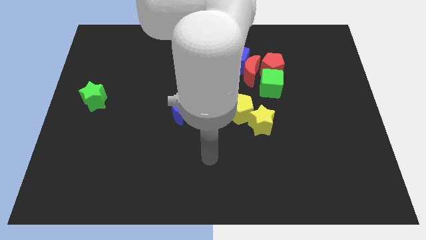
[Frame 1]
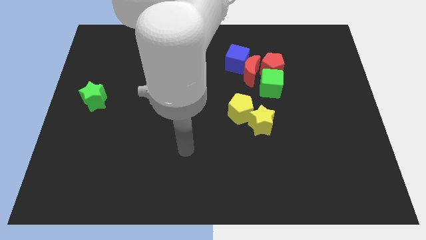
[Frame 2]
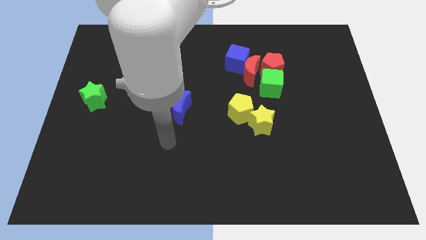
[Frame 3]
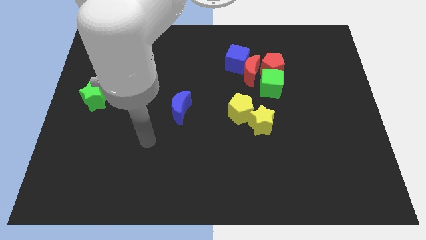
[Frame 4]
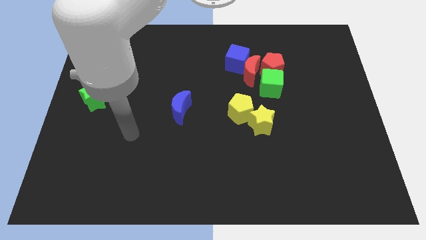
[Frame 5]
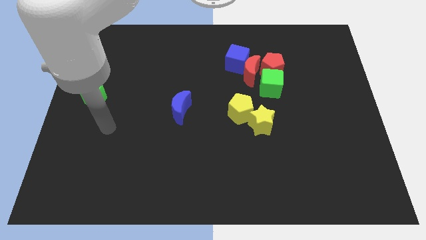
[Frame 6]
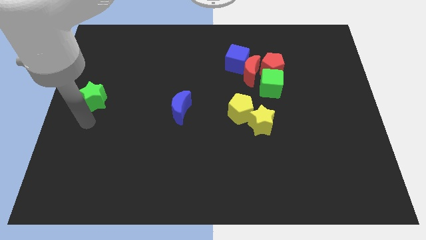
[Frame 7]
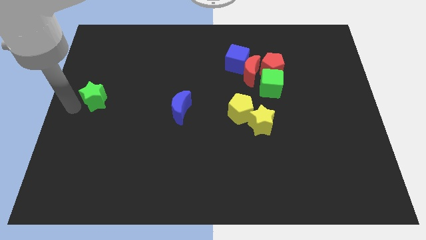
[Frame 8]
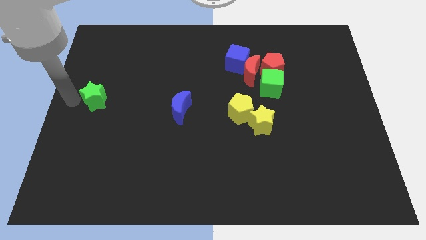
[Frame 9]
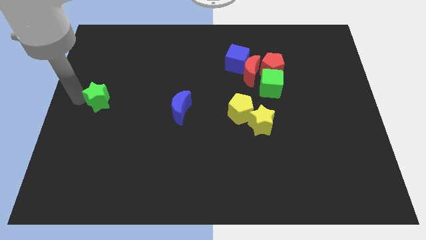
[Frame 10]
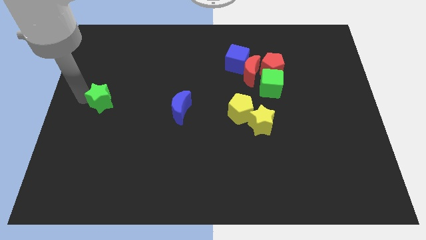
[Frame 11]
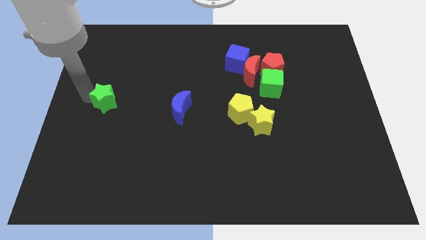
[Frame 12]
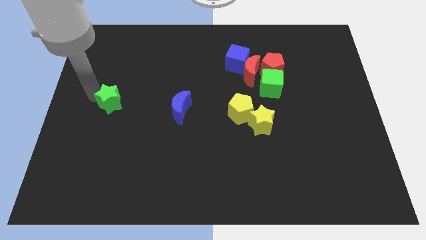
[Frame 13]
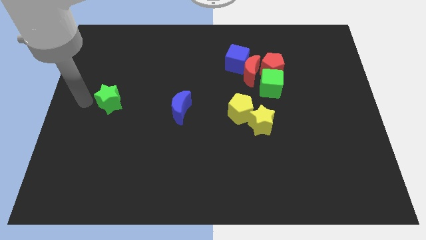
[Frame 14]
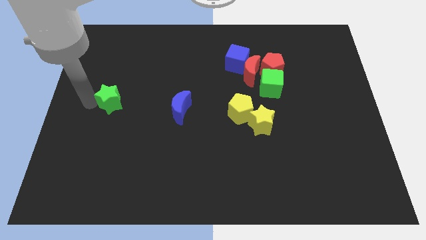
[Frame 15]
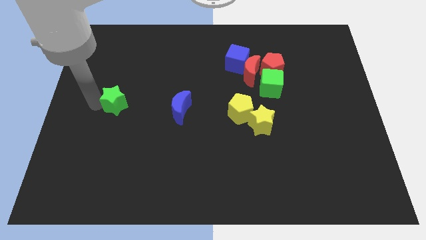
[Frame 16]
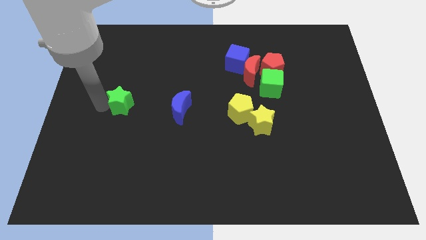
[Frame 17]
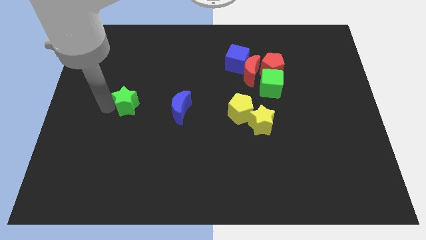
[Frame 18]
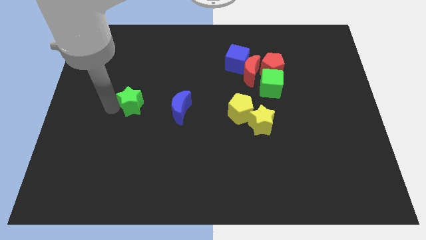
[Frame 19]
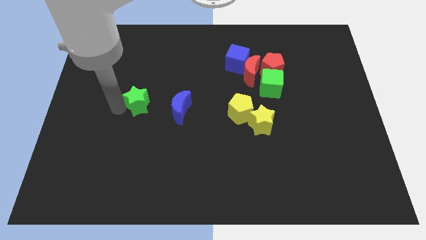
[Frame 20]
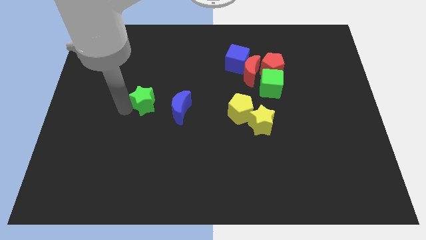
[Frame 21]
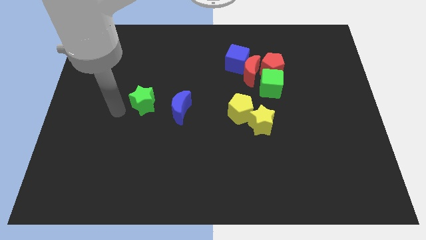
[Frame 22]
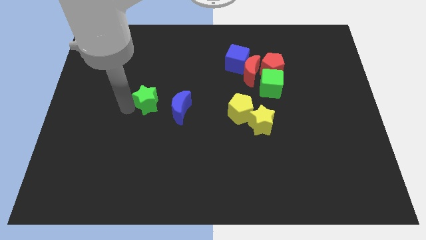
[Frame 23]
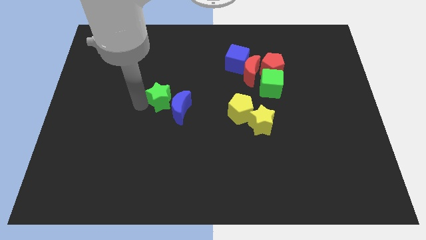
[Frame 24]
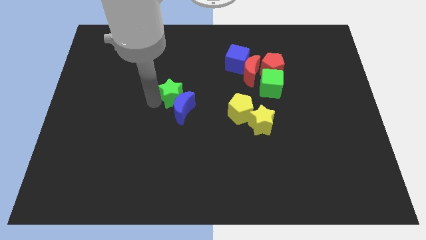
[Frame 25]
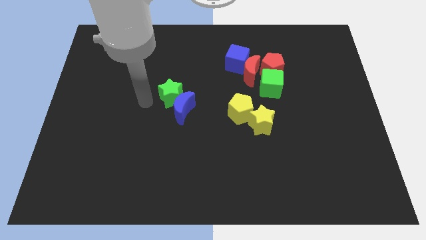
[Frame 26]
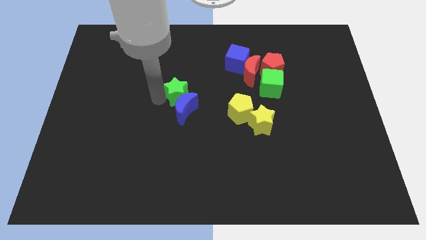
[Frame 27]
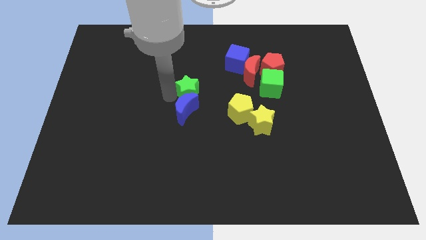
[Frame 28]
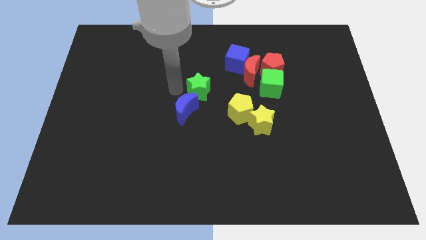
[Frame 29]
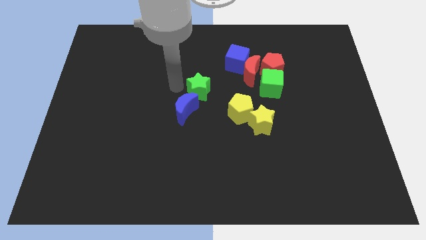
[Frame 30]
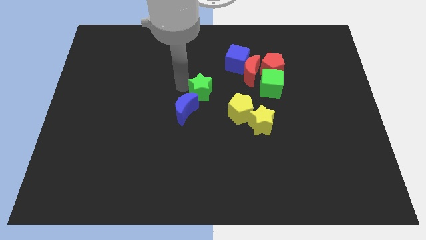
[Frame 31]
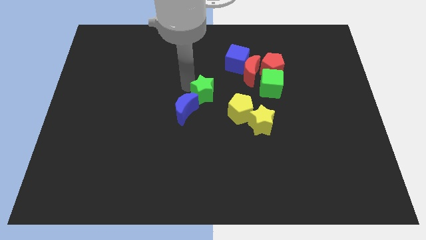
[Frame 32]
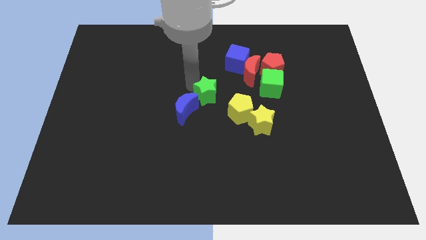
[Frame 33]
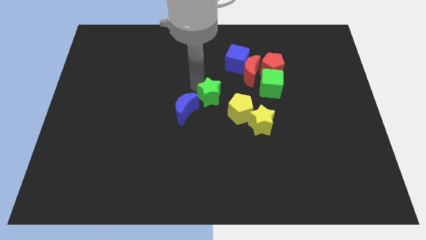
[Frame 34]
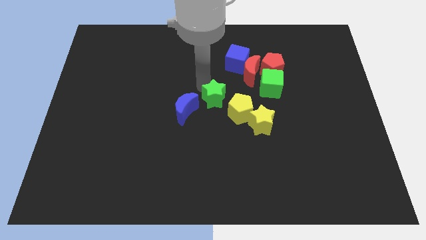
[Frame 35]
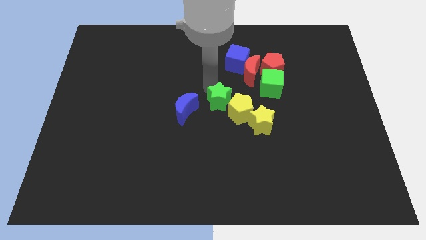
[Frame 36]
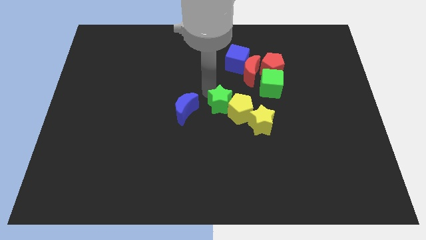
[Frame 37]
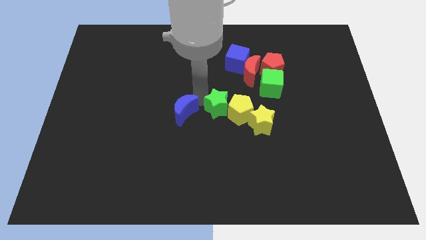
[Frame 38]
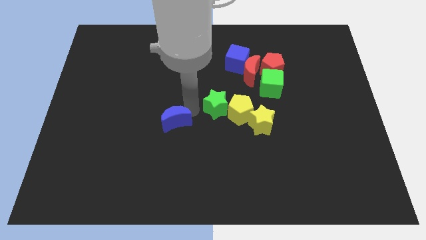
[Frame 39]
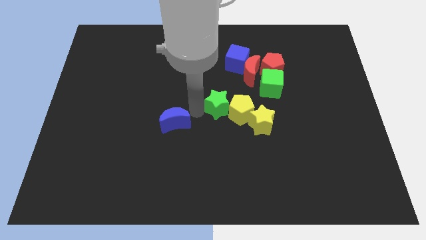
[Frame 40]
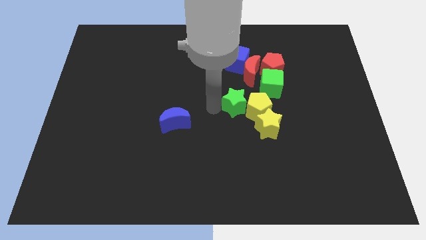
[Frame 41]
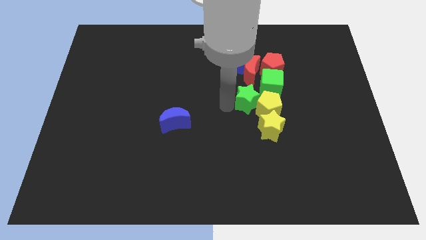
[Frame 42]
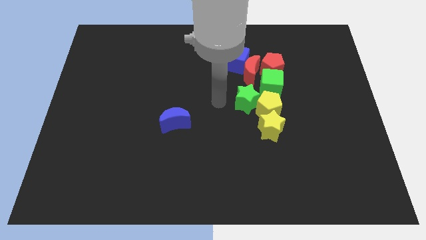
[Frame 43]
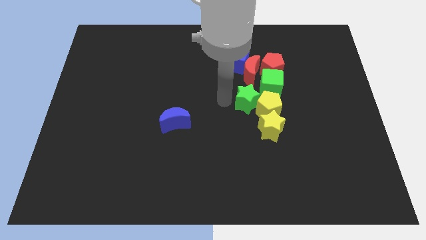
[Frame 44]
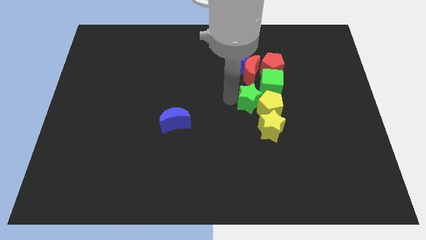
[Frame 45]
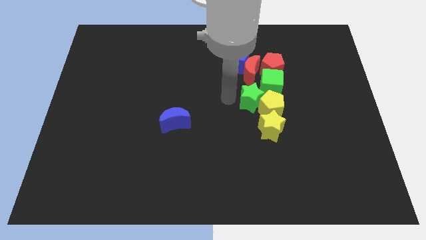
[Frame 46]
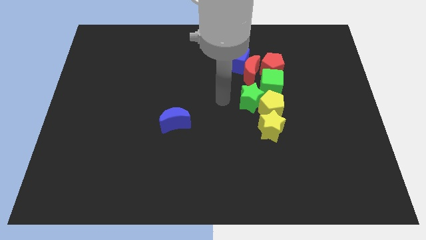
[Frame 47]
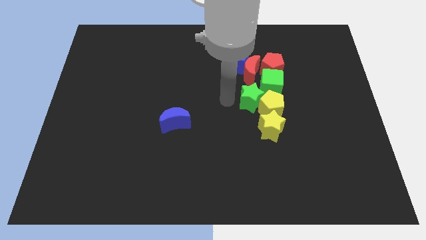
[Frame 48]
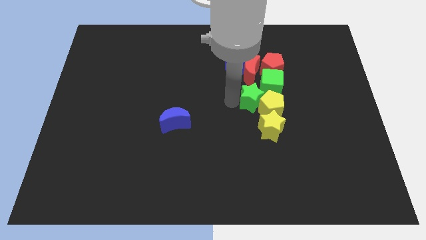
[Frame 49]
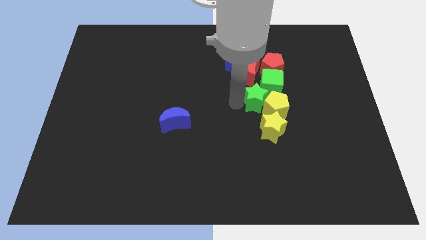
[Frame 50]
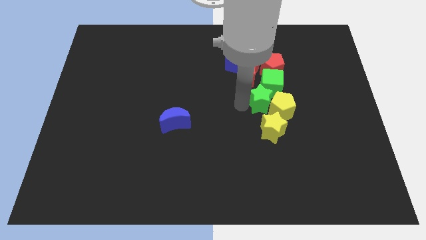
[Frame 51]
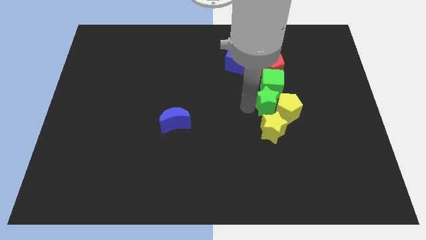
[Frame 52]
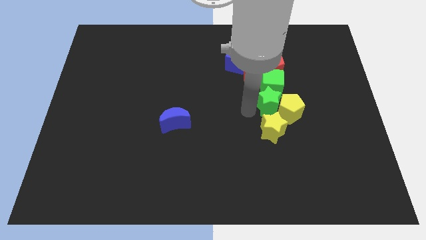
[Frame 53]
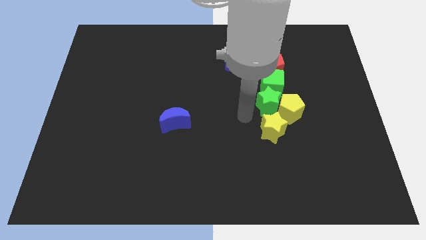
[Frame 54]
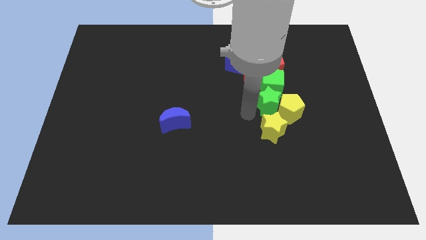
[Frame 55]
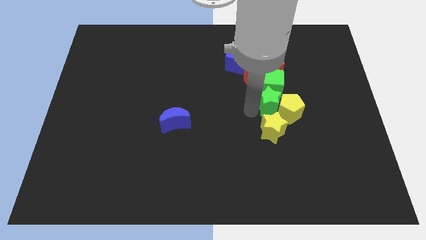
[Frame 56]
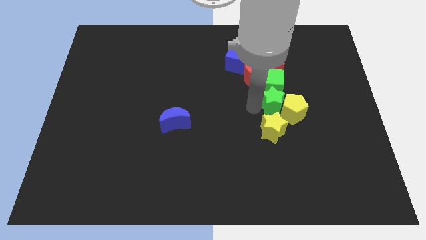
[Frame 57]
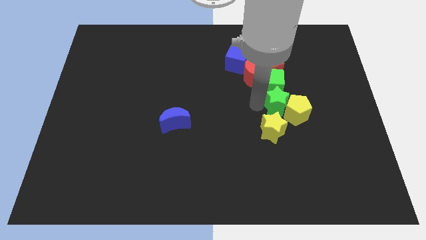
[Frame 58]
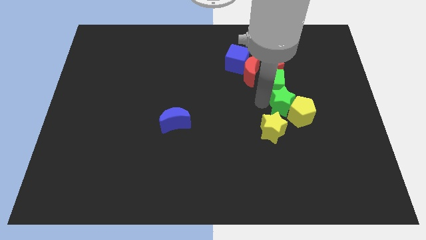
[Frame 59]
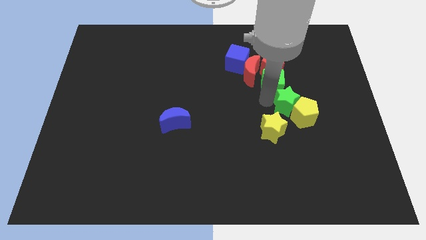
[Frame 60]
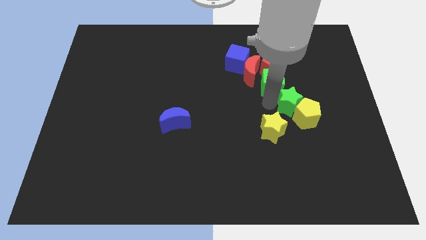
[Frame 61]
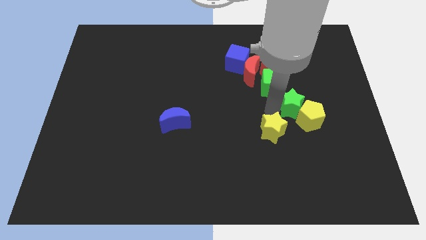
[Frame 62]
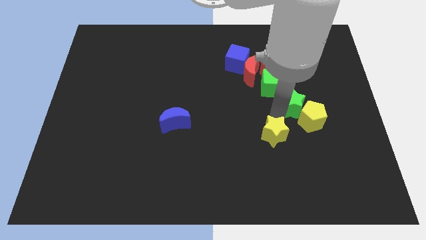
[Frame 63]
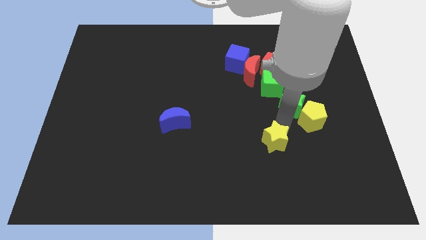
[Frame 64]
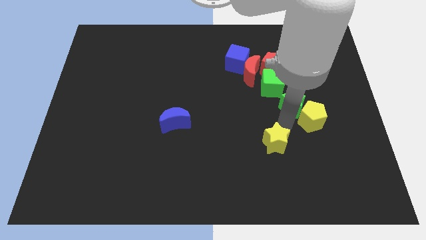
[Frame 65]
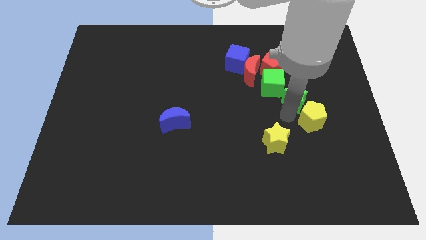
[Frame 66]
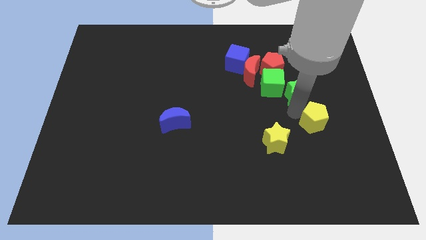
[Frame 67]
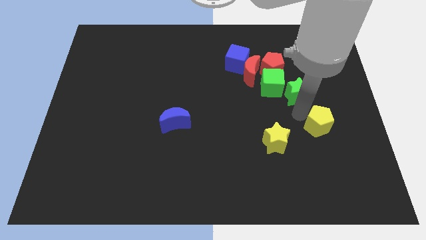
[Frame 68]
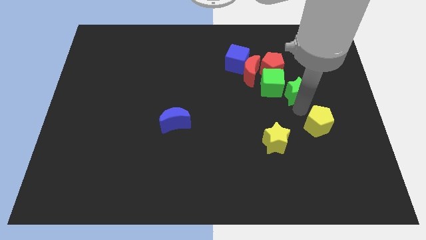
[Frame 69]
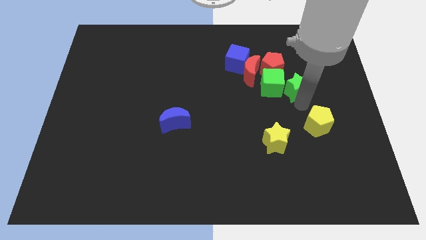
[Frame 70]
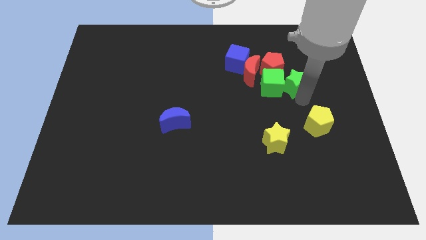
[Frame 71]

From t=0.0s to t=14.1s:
slide the green star to the right of the red moon
